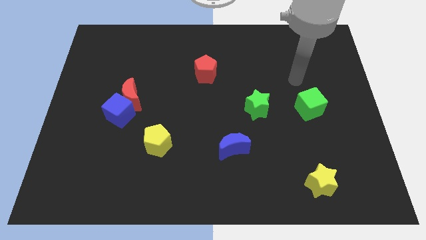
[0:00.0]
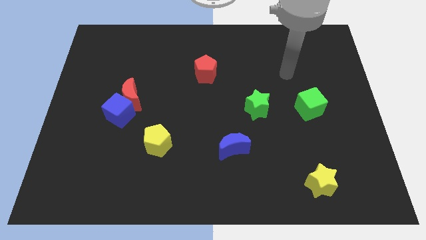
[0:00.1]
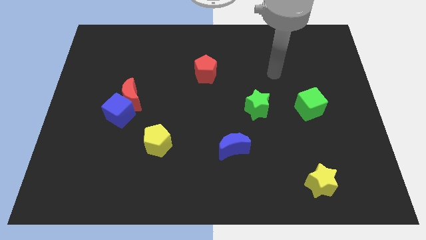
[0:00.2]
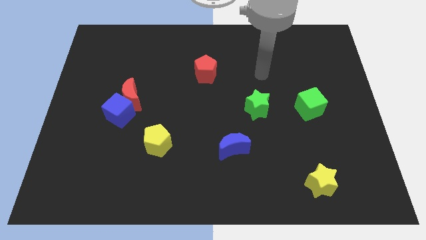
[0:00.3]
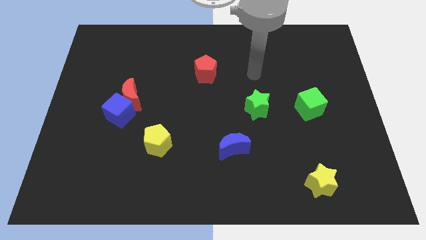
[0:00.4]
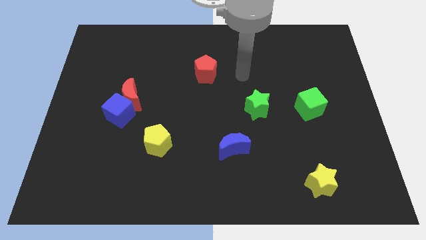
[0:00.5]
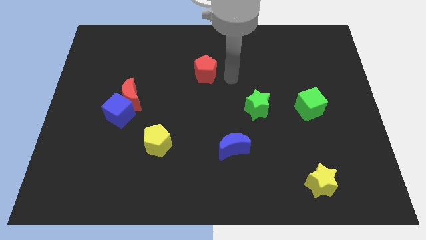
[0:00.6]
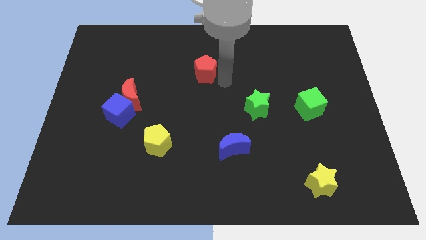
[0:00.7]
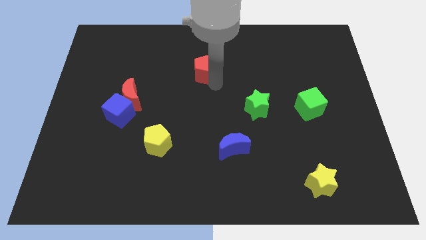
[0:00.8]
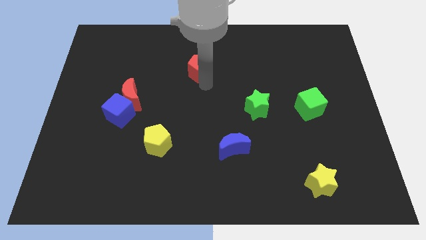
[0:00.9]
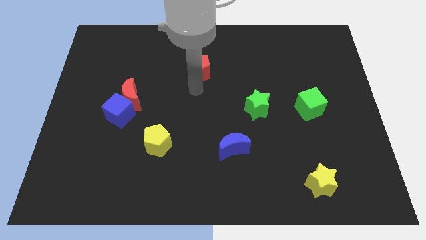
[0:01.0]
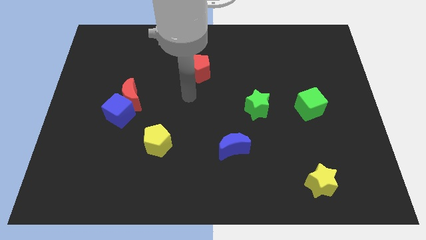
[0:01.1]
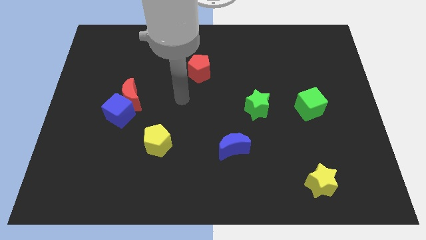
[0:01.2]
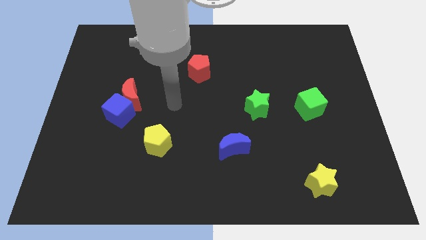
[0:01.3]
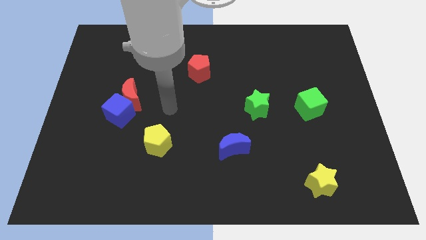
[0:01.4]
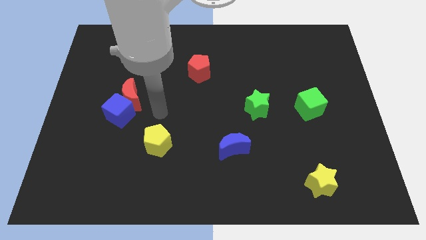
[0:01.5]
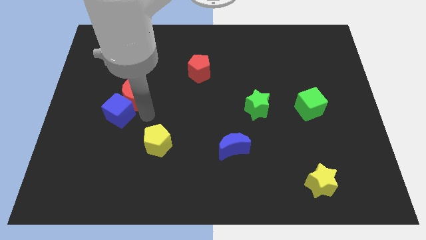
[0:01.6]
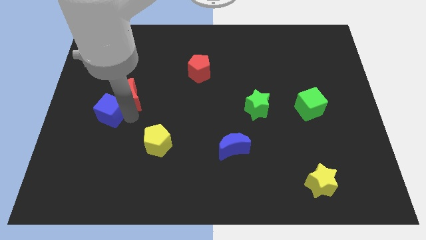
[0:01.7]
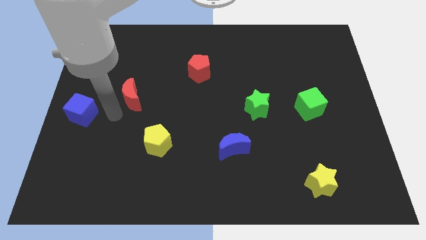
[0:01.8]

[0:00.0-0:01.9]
move the red moon away from the blue cube

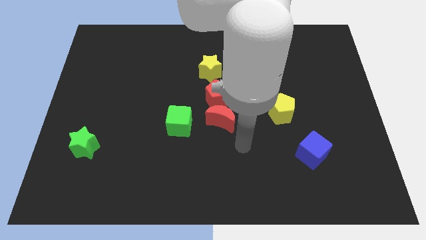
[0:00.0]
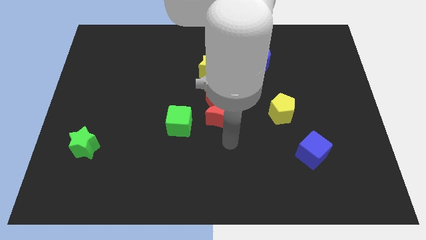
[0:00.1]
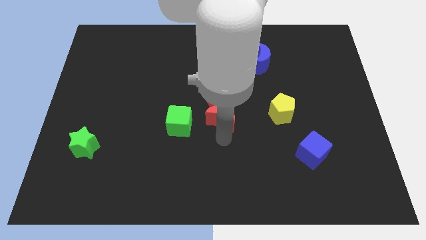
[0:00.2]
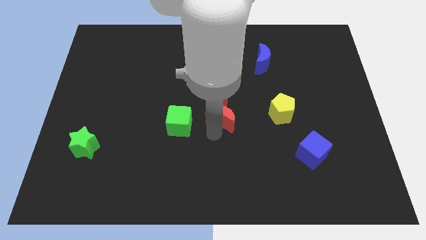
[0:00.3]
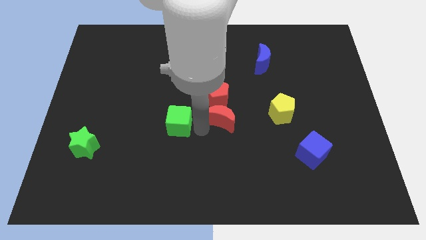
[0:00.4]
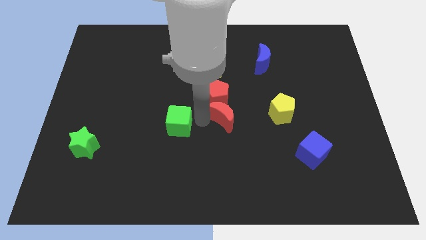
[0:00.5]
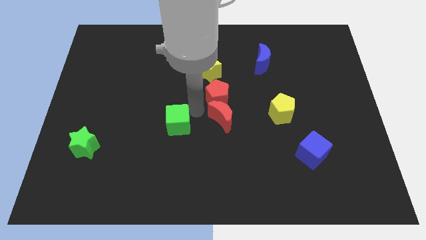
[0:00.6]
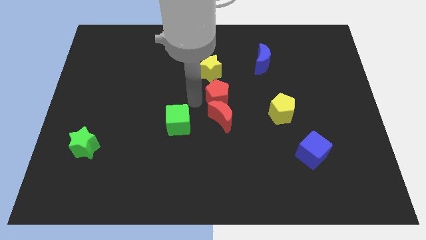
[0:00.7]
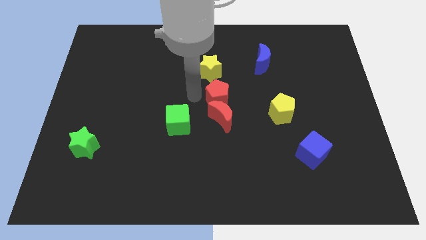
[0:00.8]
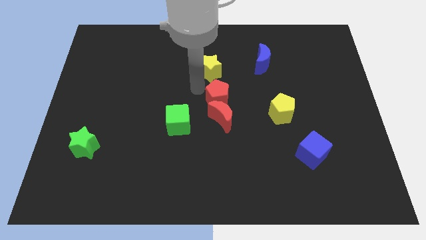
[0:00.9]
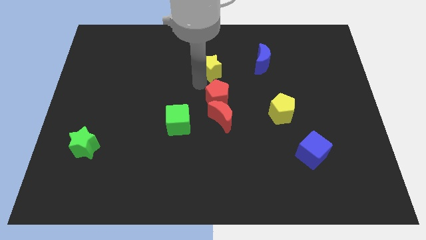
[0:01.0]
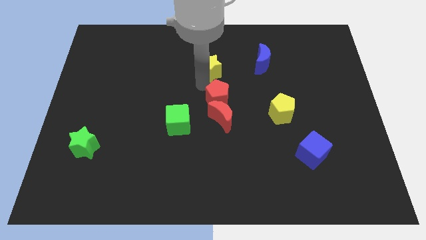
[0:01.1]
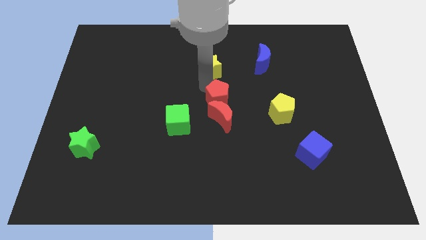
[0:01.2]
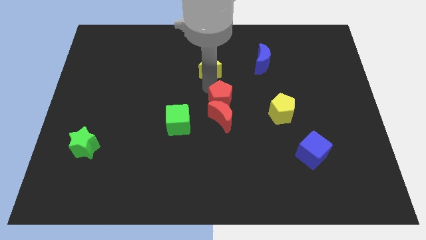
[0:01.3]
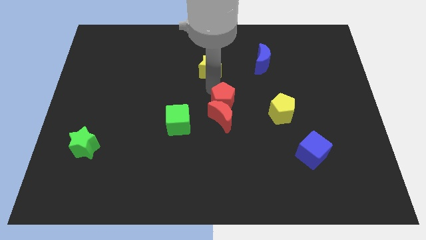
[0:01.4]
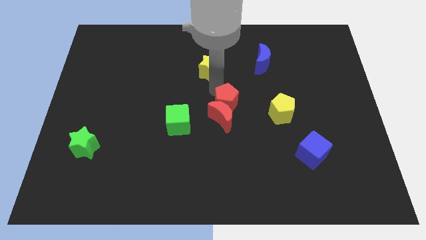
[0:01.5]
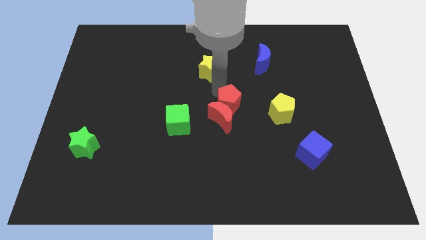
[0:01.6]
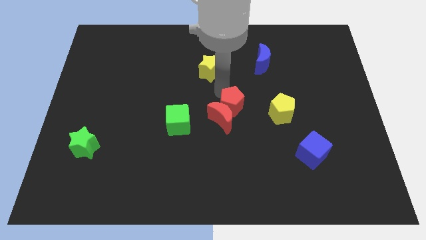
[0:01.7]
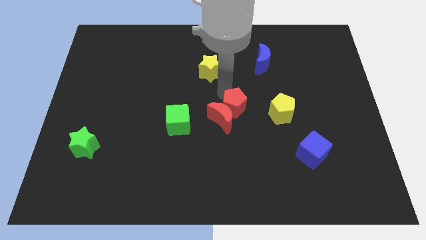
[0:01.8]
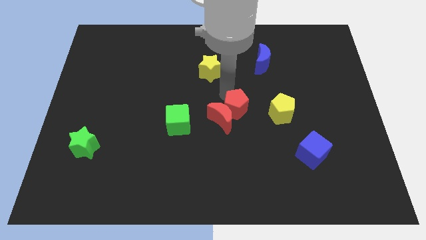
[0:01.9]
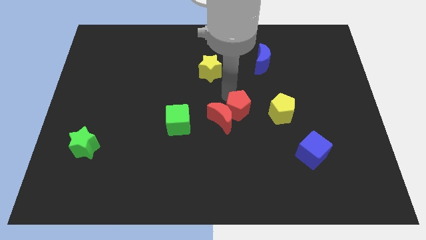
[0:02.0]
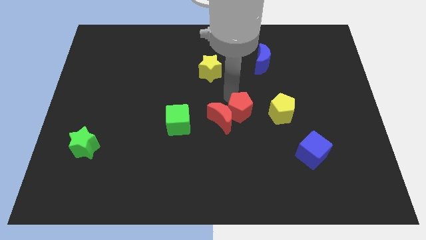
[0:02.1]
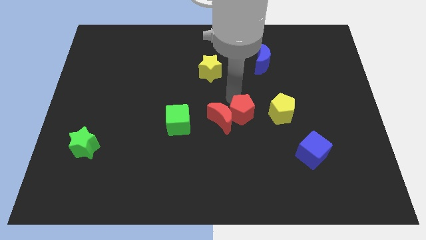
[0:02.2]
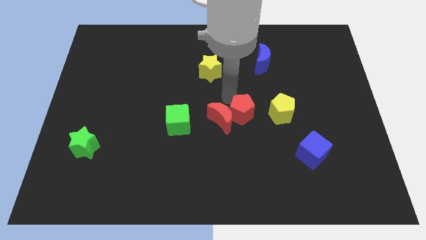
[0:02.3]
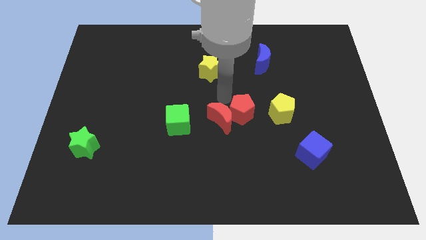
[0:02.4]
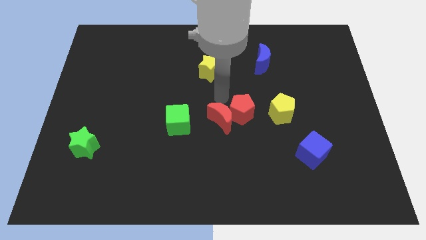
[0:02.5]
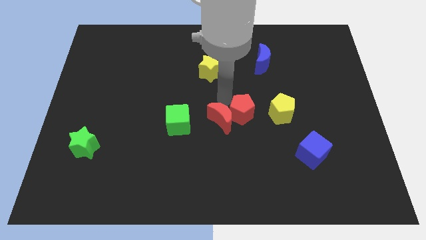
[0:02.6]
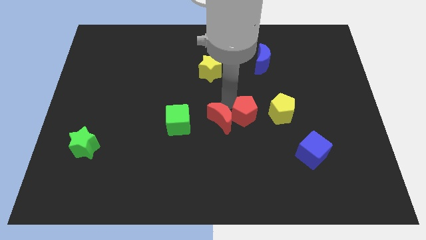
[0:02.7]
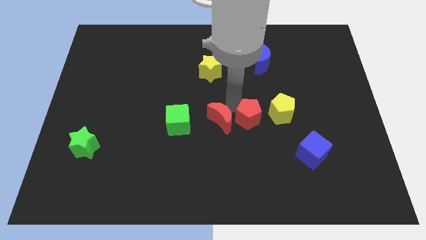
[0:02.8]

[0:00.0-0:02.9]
separate the red pentagon from the red moon and yellow star

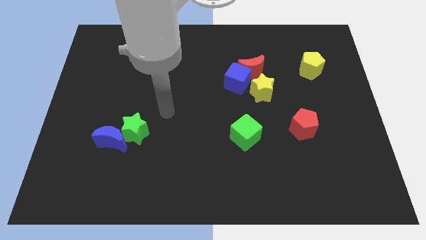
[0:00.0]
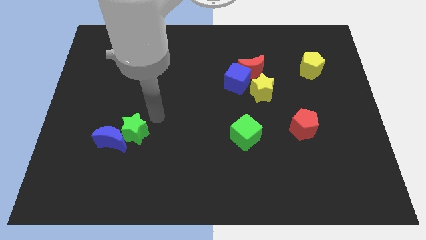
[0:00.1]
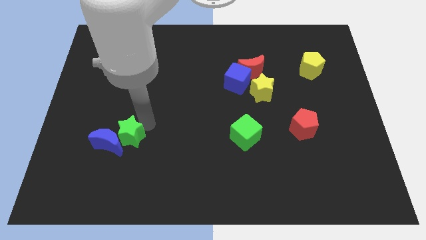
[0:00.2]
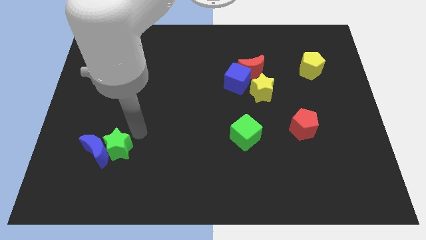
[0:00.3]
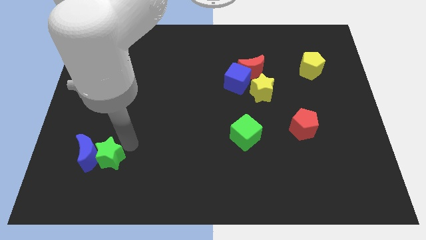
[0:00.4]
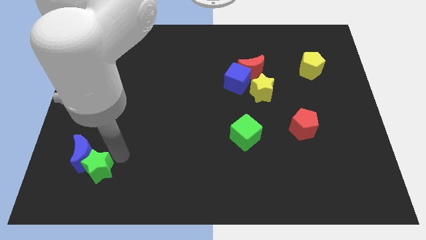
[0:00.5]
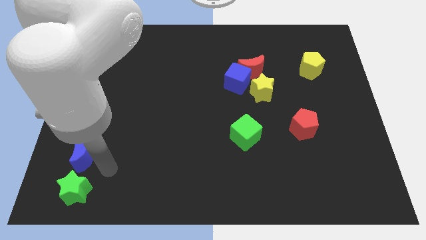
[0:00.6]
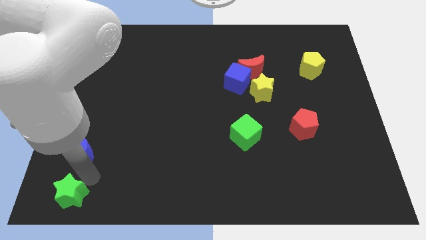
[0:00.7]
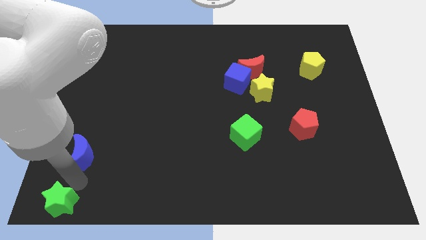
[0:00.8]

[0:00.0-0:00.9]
move the blue moon away from the green star

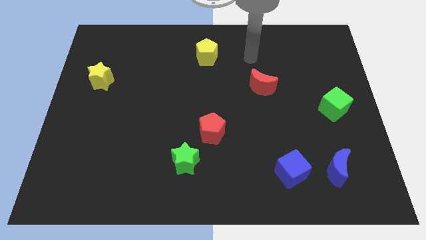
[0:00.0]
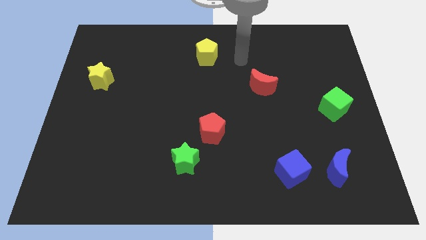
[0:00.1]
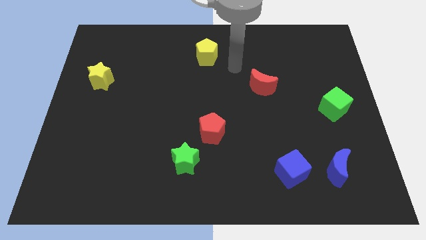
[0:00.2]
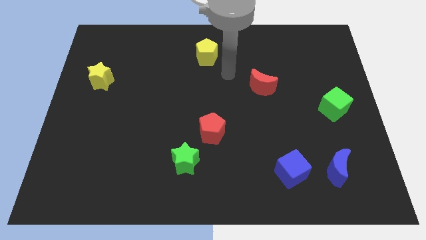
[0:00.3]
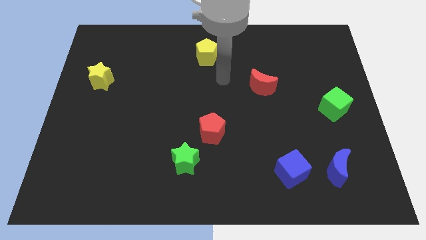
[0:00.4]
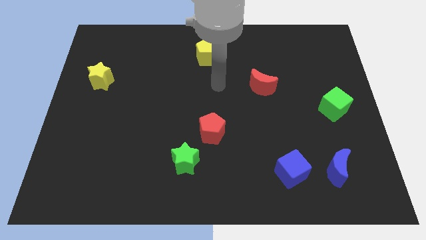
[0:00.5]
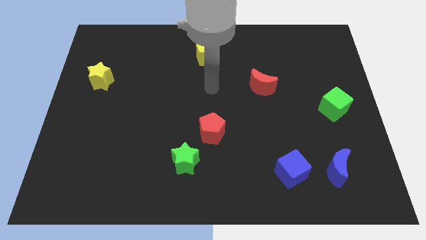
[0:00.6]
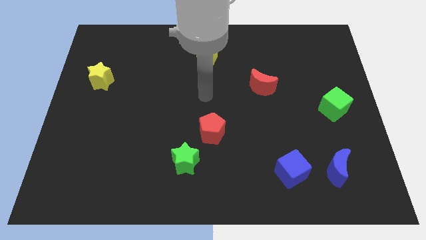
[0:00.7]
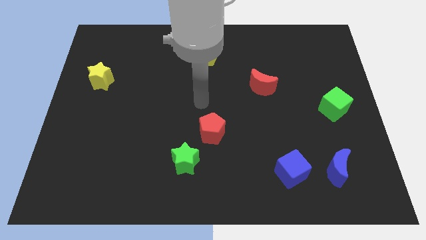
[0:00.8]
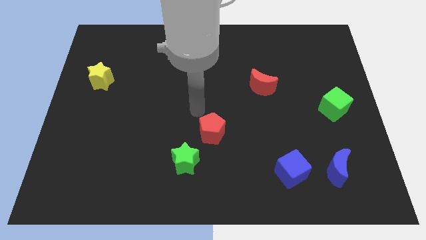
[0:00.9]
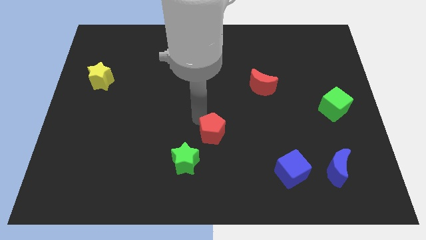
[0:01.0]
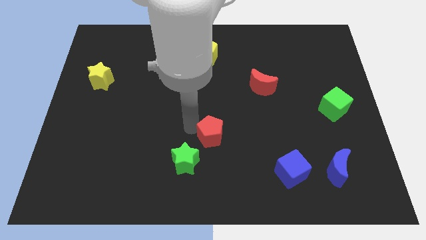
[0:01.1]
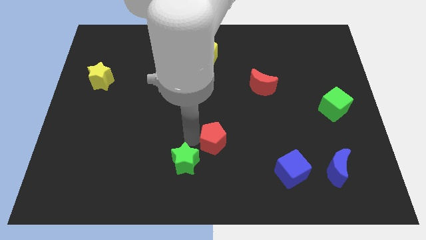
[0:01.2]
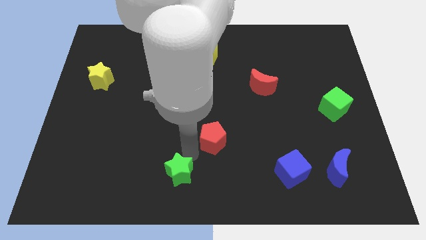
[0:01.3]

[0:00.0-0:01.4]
pull the red pentagon apart from the green star

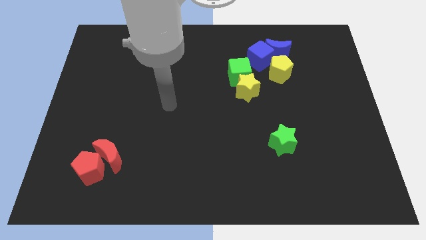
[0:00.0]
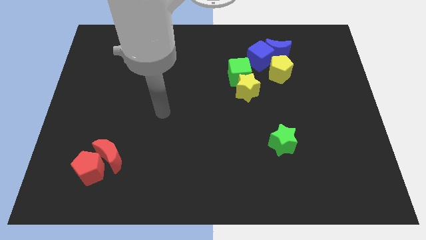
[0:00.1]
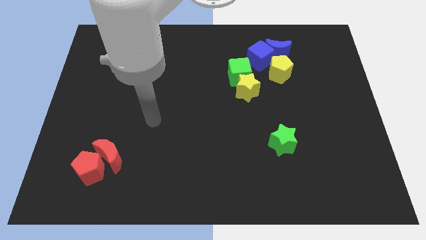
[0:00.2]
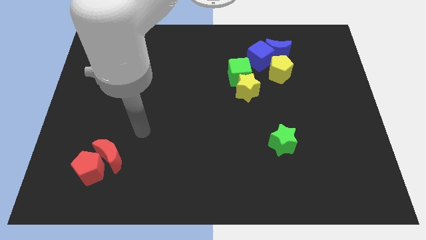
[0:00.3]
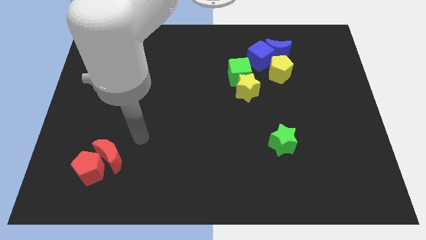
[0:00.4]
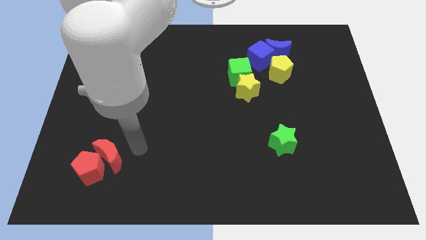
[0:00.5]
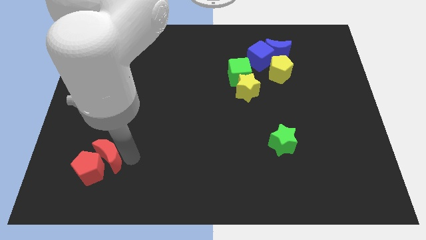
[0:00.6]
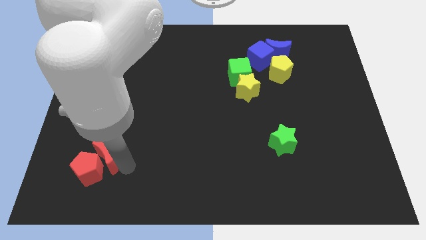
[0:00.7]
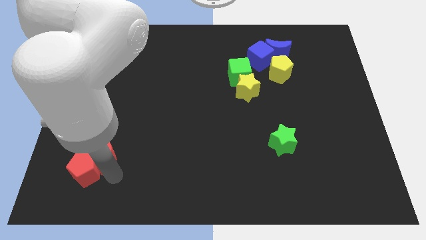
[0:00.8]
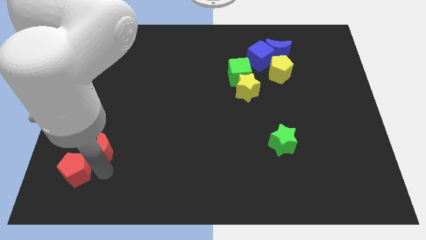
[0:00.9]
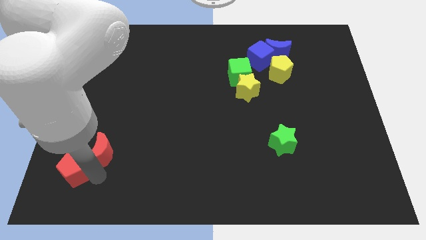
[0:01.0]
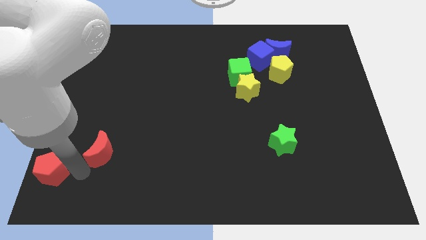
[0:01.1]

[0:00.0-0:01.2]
separate the red moon from the red pentagon

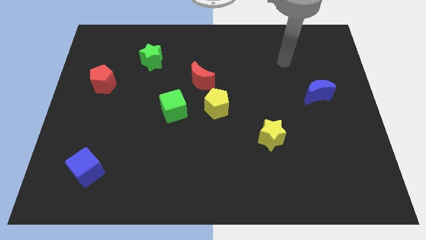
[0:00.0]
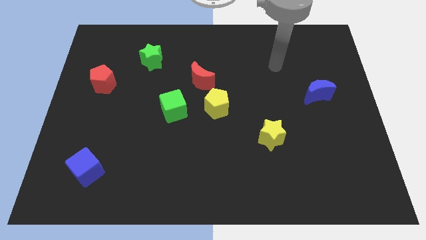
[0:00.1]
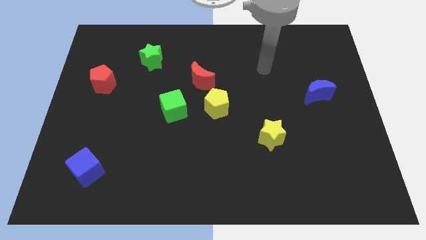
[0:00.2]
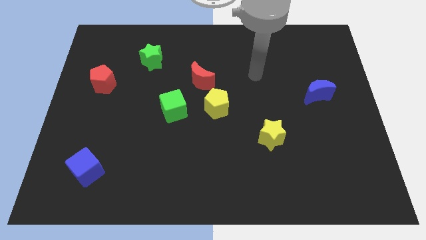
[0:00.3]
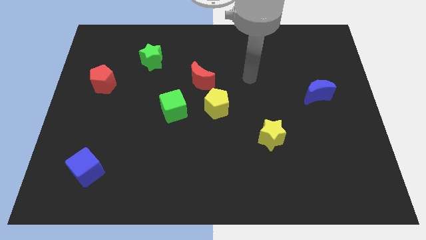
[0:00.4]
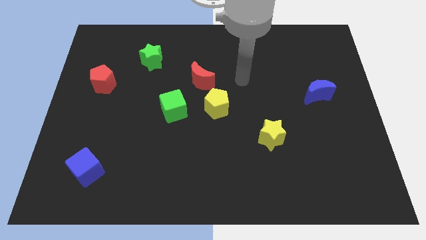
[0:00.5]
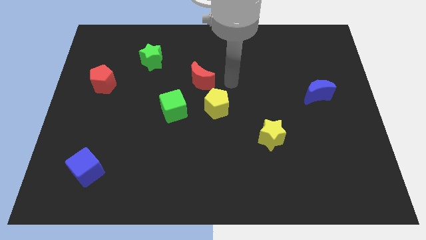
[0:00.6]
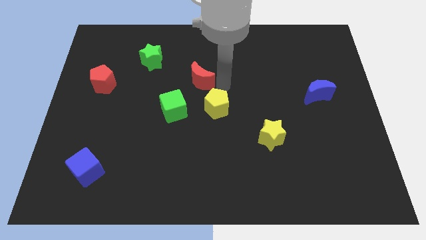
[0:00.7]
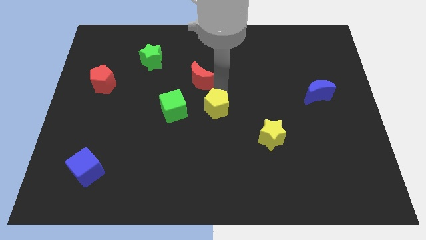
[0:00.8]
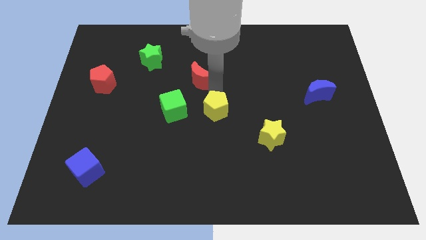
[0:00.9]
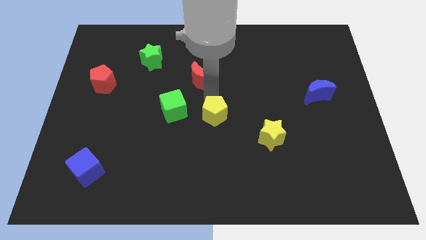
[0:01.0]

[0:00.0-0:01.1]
separate the red moon from the yellow pentagon
